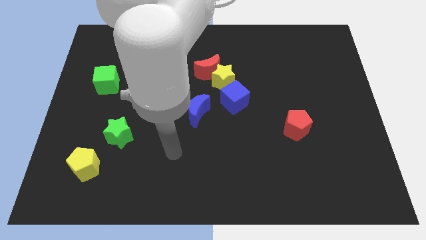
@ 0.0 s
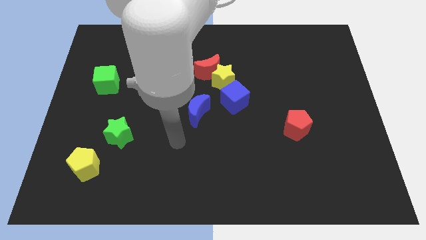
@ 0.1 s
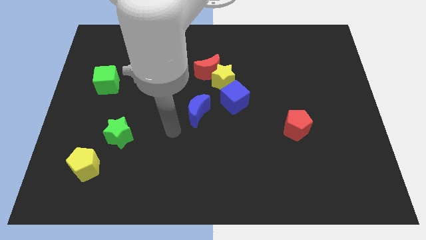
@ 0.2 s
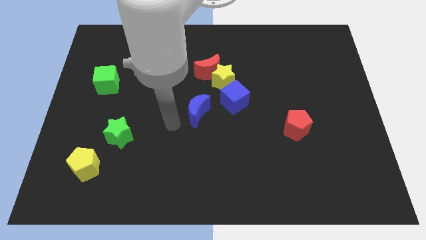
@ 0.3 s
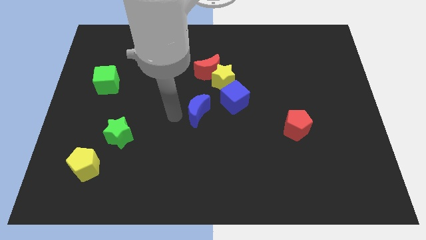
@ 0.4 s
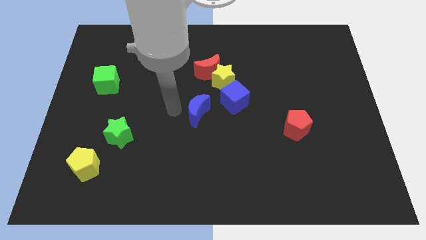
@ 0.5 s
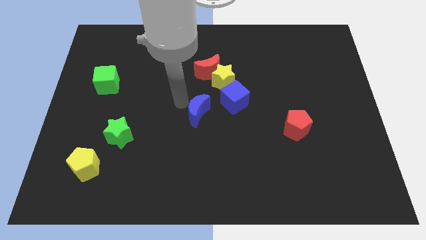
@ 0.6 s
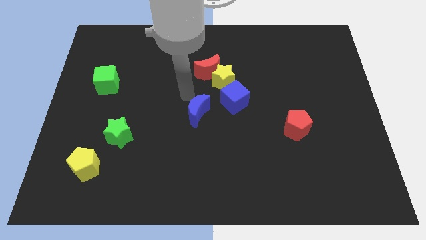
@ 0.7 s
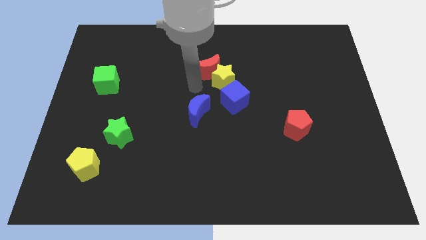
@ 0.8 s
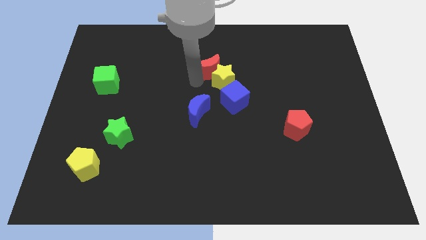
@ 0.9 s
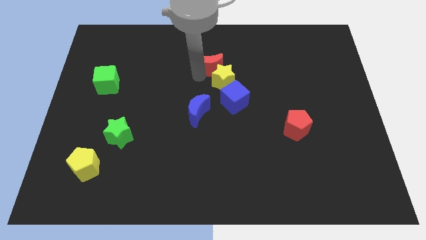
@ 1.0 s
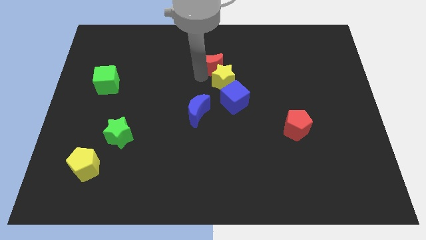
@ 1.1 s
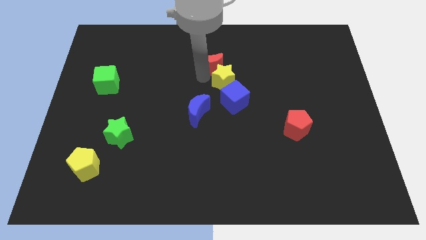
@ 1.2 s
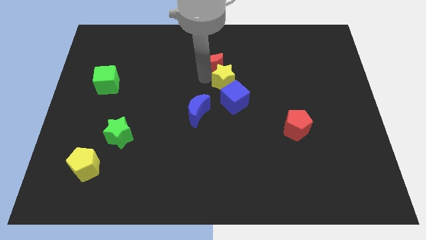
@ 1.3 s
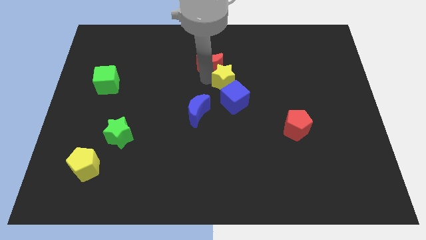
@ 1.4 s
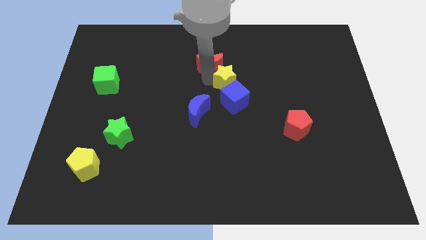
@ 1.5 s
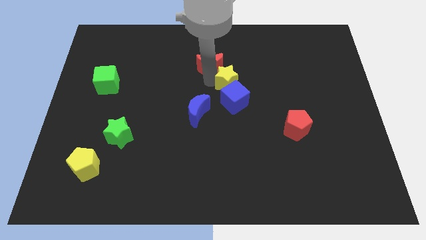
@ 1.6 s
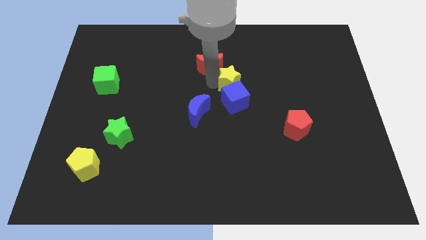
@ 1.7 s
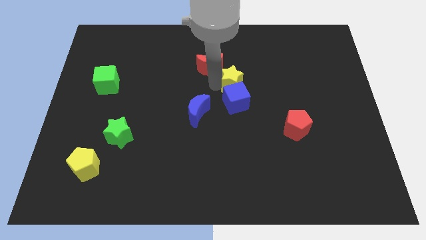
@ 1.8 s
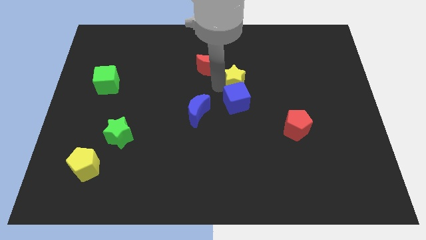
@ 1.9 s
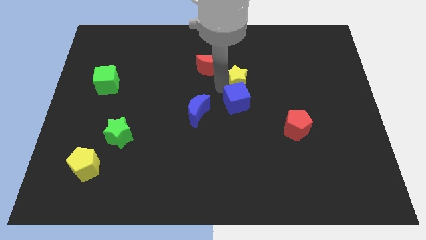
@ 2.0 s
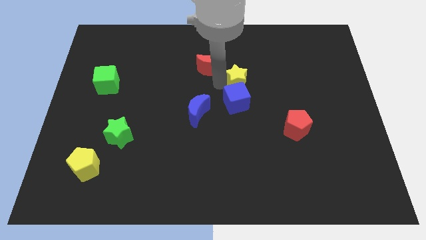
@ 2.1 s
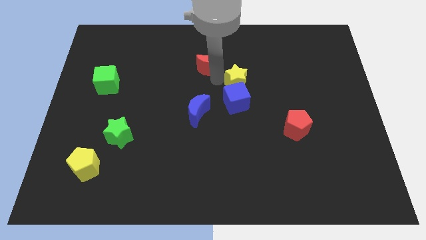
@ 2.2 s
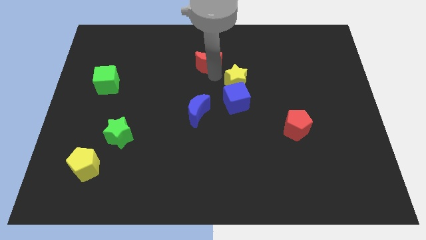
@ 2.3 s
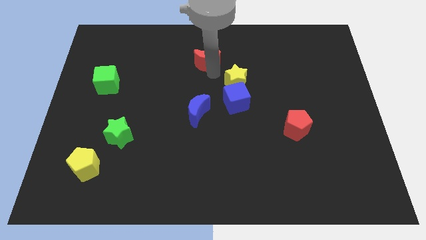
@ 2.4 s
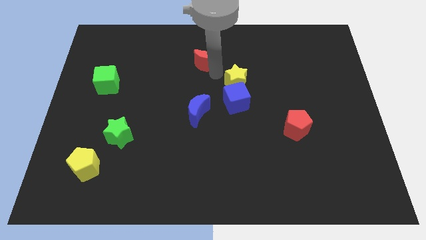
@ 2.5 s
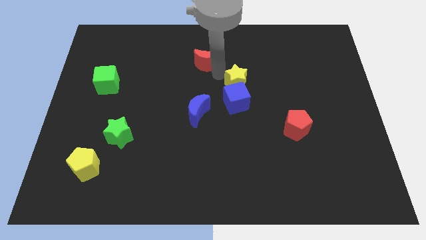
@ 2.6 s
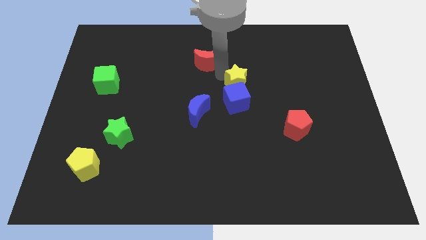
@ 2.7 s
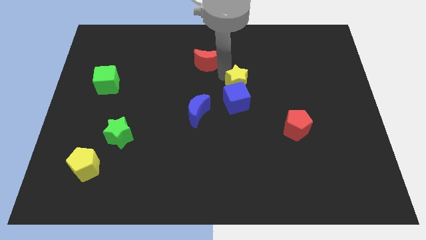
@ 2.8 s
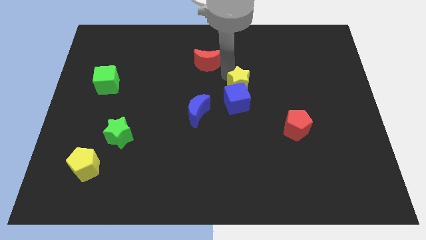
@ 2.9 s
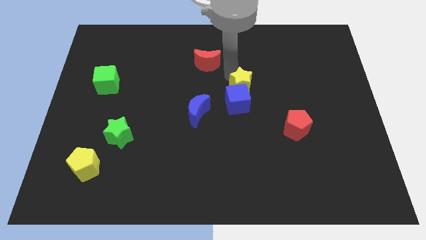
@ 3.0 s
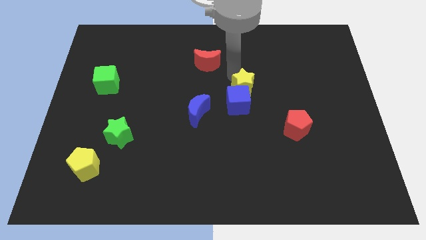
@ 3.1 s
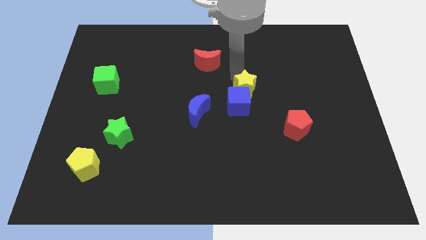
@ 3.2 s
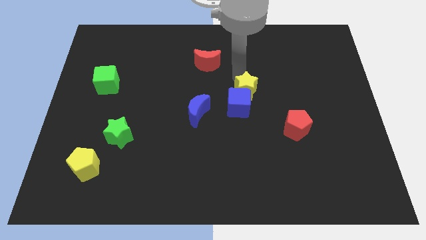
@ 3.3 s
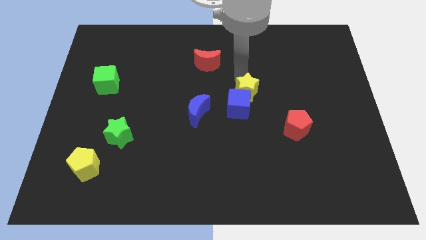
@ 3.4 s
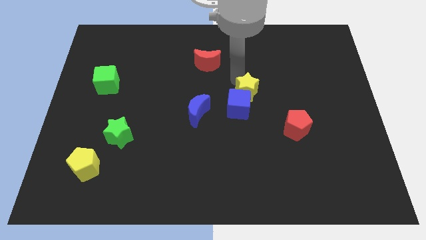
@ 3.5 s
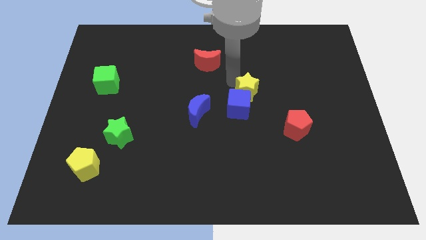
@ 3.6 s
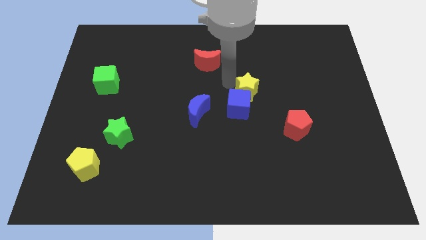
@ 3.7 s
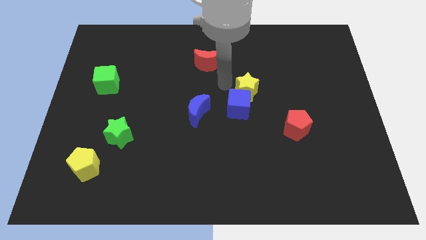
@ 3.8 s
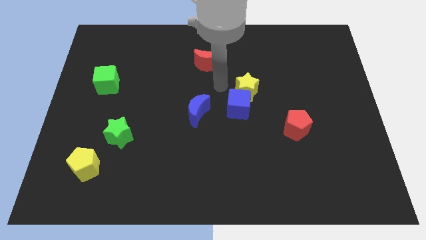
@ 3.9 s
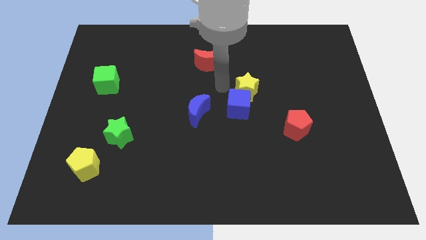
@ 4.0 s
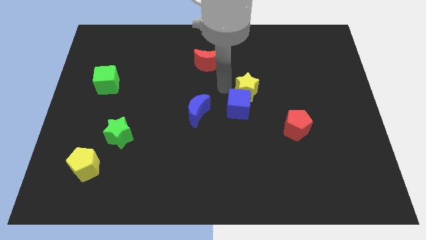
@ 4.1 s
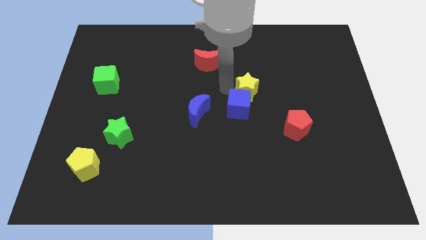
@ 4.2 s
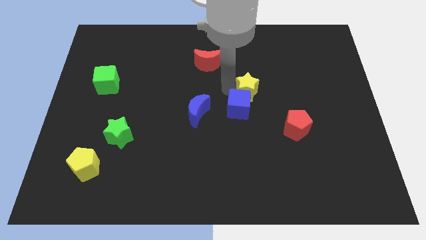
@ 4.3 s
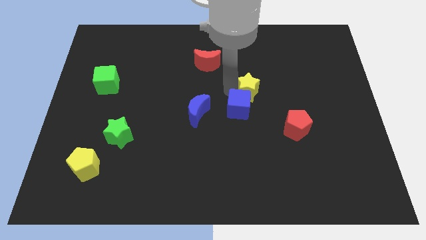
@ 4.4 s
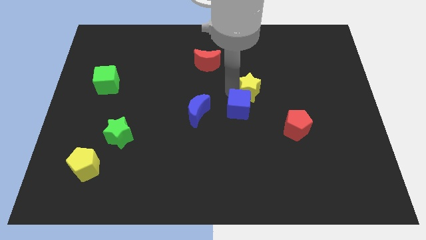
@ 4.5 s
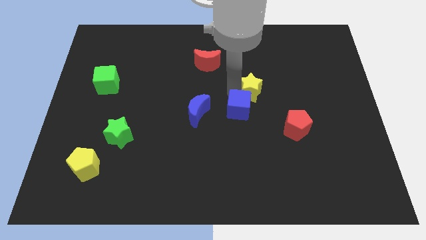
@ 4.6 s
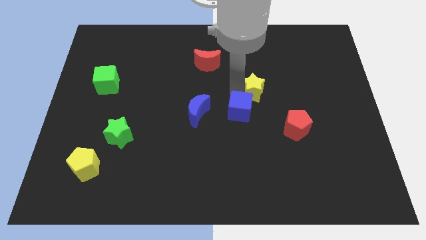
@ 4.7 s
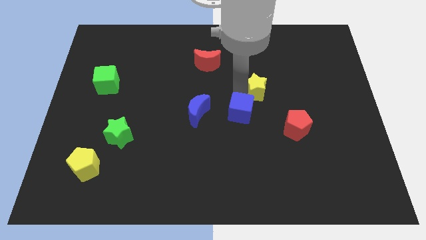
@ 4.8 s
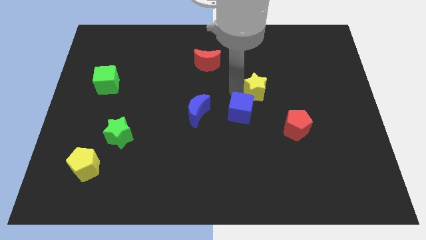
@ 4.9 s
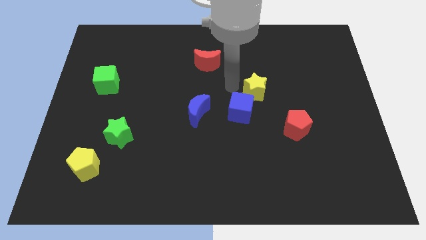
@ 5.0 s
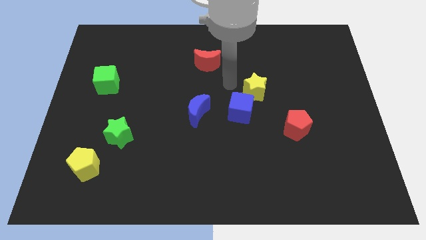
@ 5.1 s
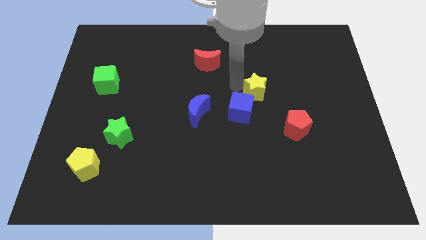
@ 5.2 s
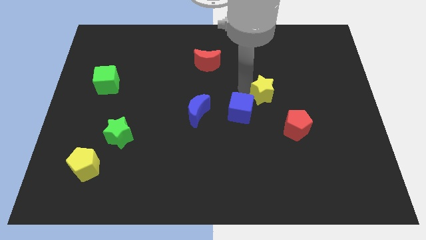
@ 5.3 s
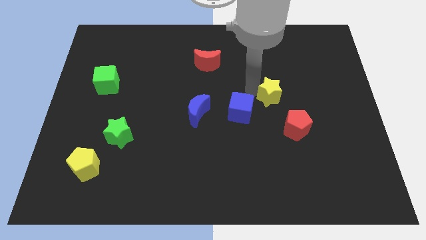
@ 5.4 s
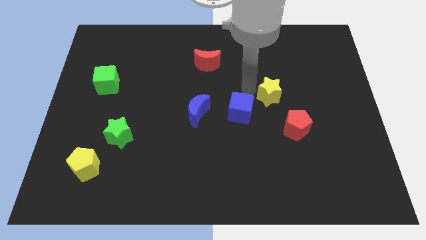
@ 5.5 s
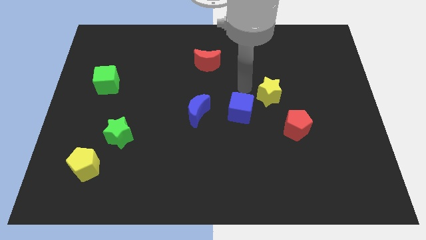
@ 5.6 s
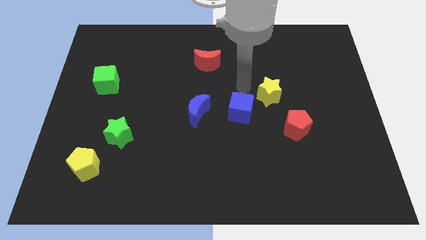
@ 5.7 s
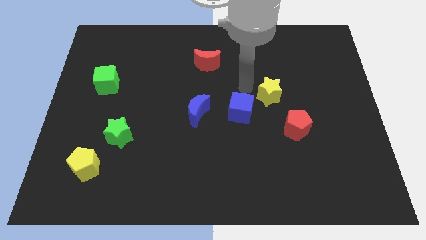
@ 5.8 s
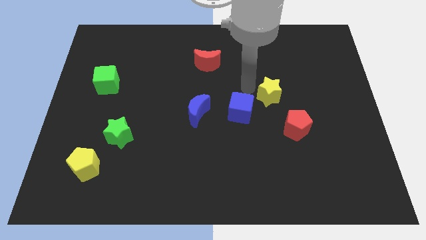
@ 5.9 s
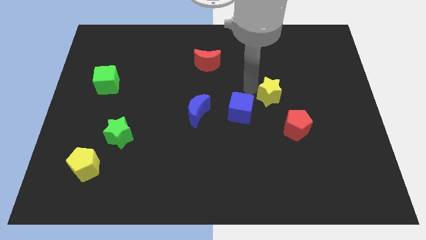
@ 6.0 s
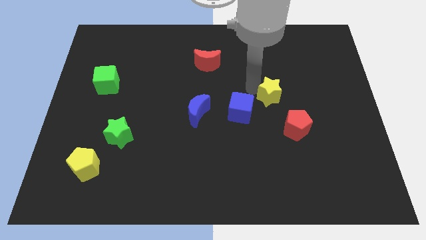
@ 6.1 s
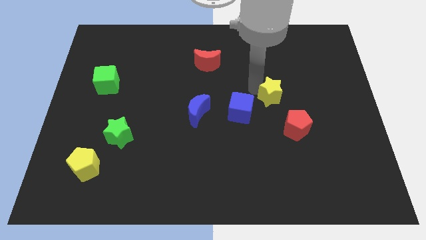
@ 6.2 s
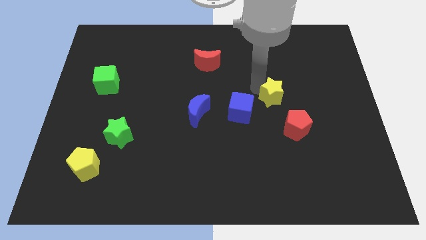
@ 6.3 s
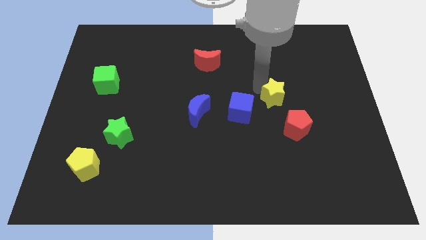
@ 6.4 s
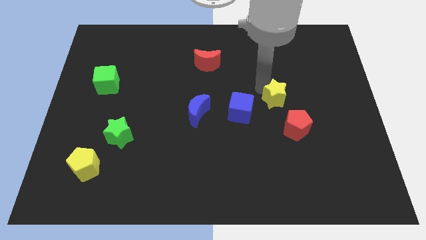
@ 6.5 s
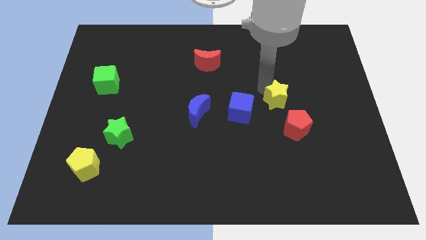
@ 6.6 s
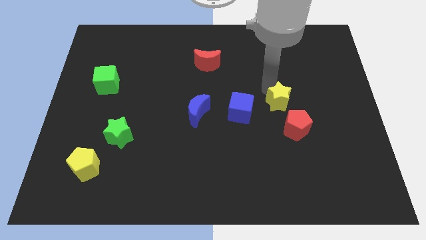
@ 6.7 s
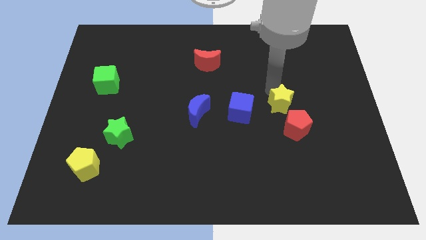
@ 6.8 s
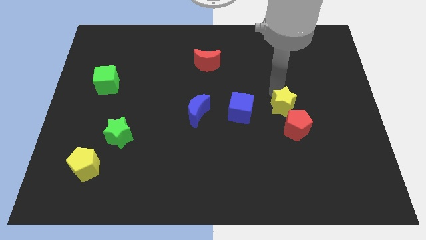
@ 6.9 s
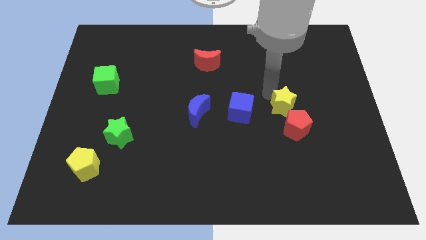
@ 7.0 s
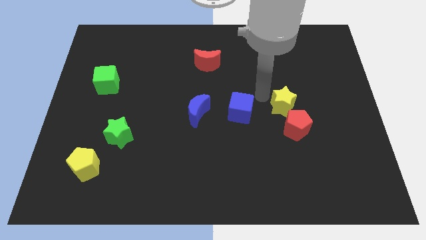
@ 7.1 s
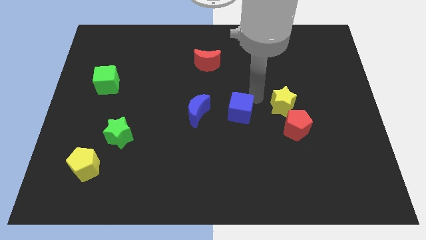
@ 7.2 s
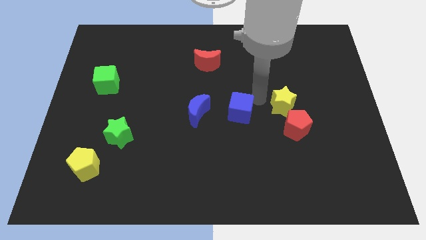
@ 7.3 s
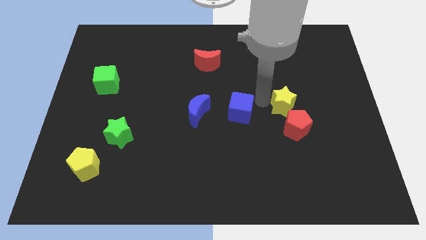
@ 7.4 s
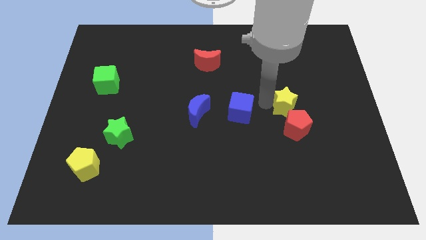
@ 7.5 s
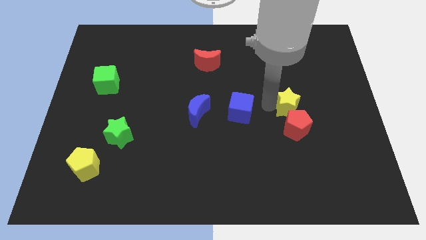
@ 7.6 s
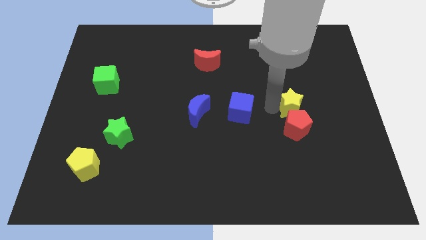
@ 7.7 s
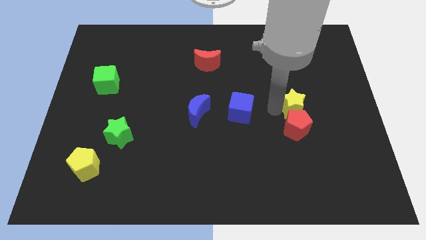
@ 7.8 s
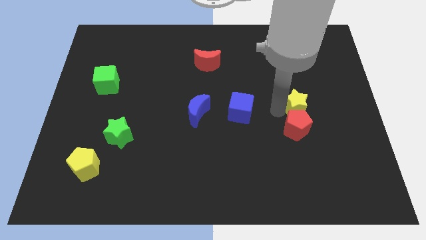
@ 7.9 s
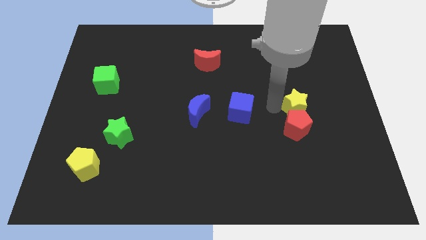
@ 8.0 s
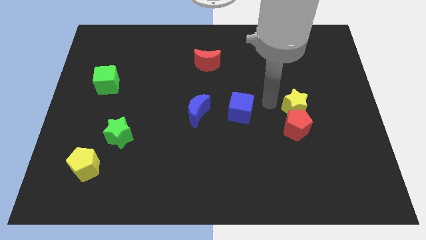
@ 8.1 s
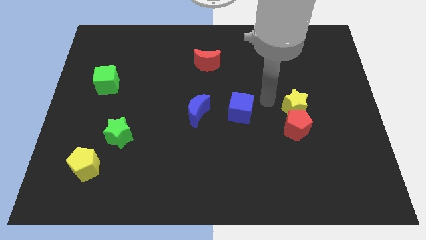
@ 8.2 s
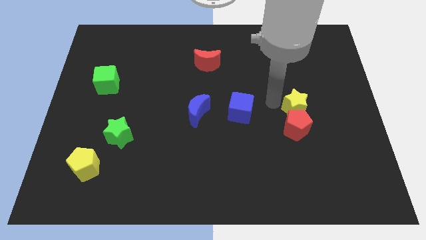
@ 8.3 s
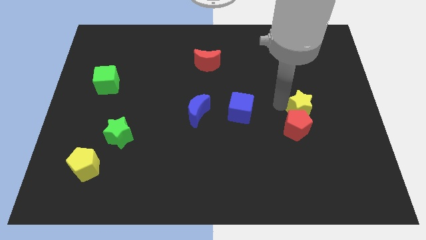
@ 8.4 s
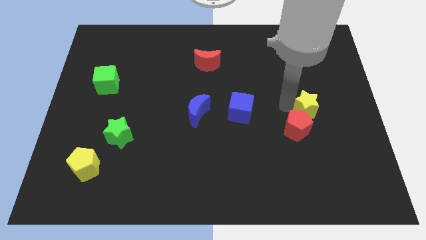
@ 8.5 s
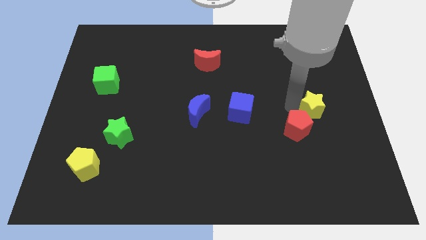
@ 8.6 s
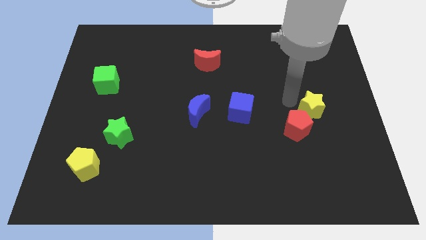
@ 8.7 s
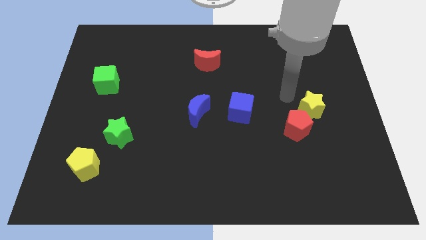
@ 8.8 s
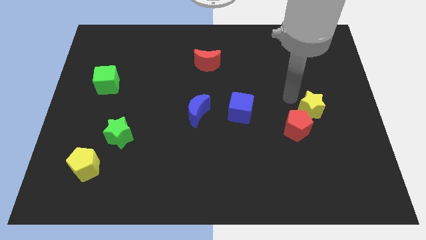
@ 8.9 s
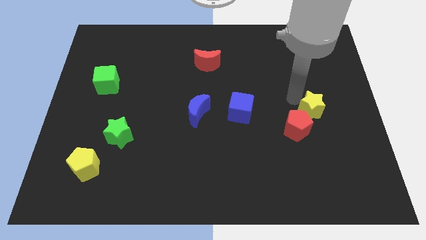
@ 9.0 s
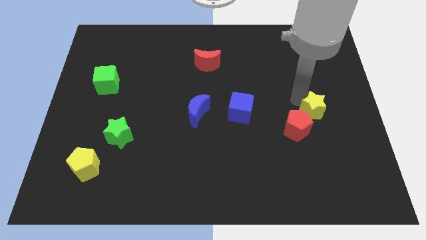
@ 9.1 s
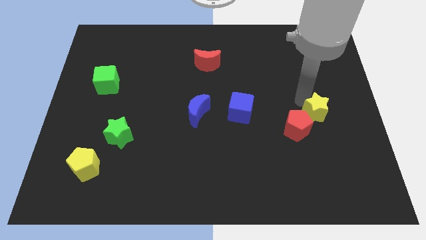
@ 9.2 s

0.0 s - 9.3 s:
move the yellow star to the right side of the red pentagon
